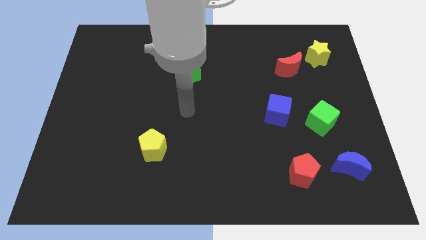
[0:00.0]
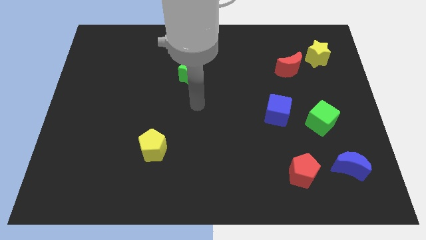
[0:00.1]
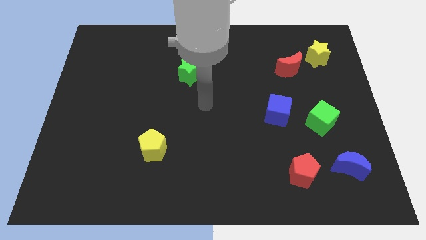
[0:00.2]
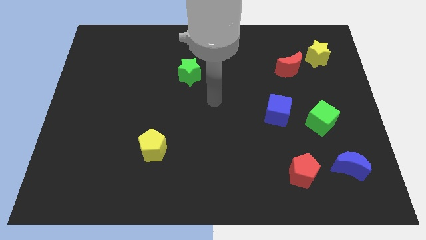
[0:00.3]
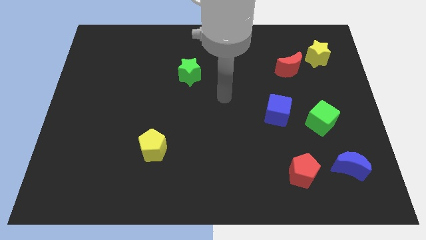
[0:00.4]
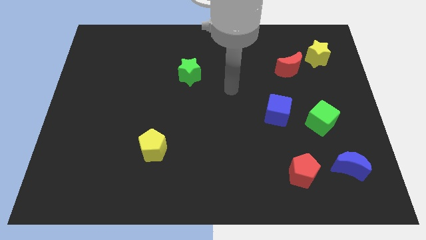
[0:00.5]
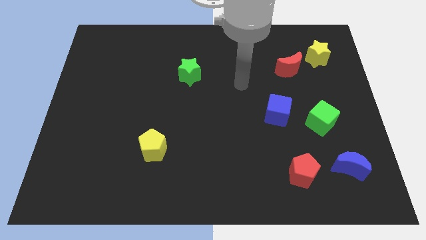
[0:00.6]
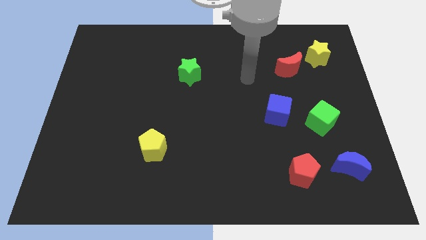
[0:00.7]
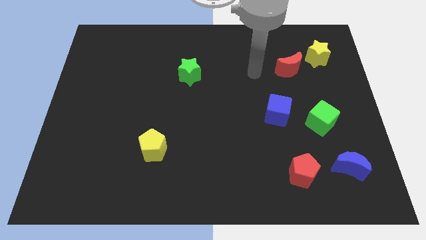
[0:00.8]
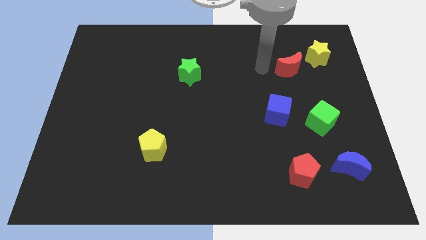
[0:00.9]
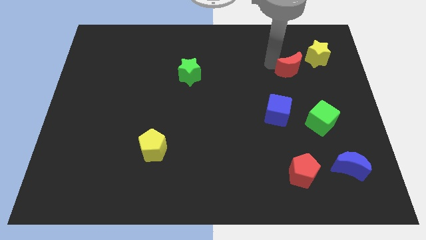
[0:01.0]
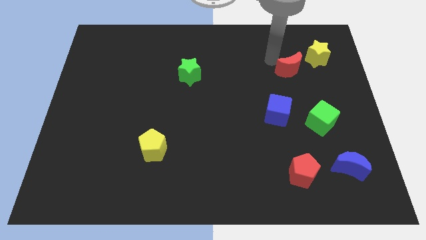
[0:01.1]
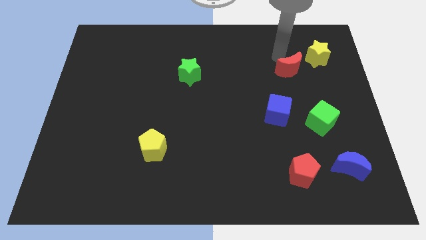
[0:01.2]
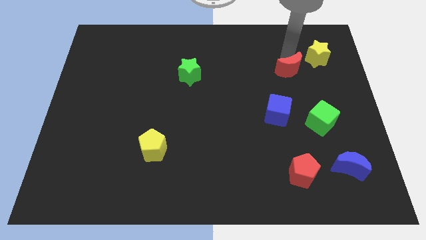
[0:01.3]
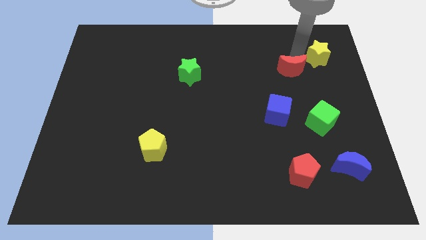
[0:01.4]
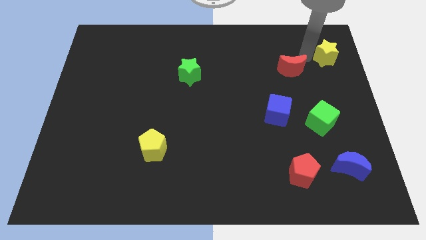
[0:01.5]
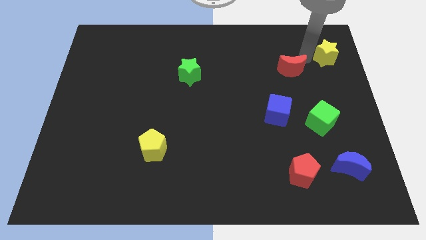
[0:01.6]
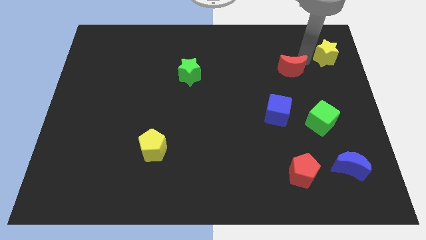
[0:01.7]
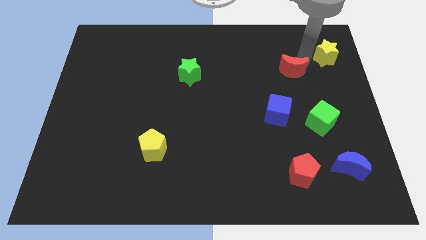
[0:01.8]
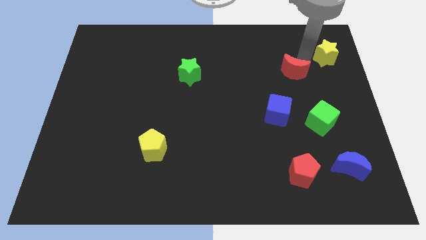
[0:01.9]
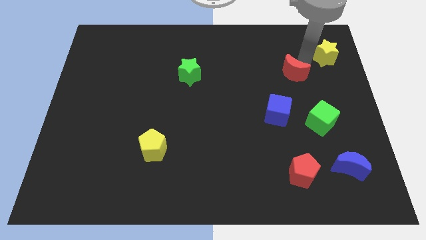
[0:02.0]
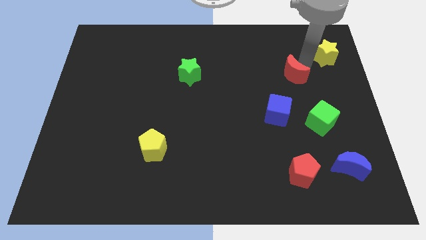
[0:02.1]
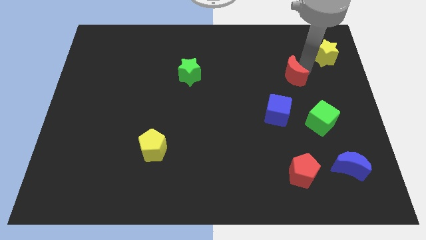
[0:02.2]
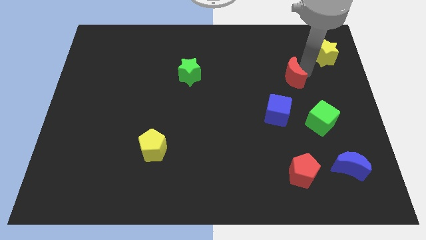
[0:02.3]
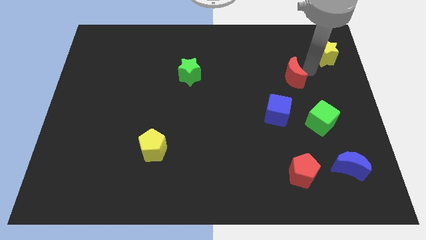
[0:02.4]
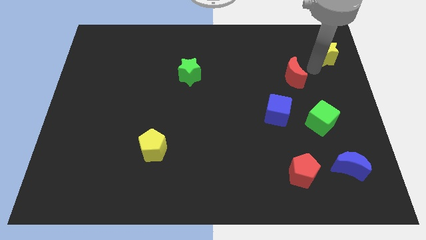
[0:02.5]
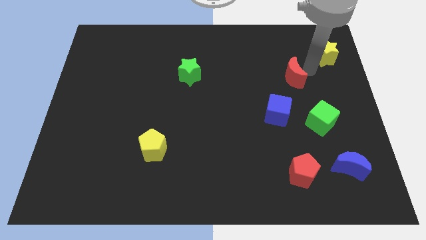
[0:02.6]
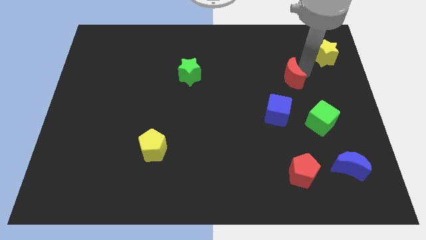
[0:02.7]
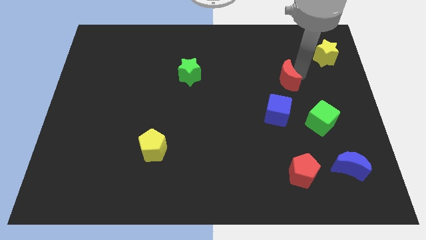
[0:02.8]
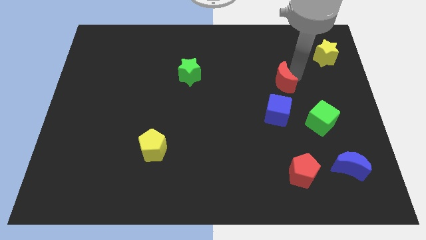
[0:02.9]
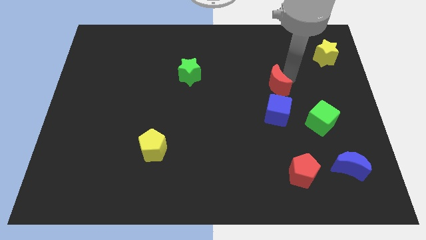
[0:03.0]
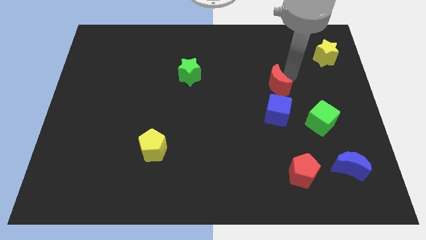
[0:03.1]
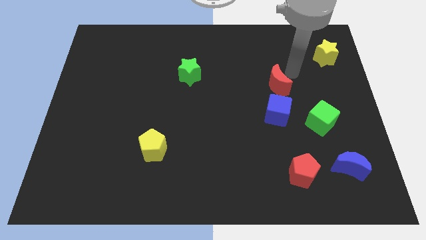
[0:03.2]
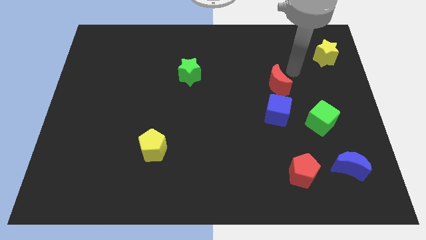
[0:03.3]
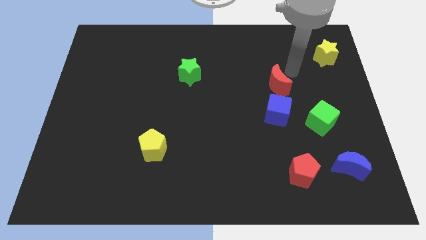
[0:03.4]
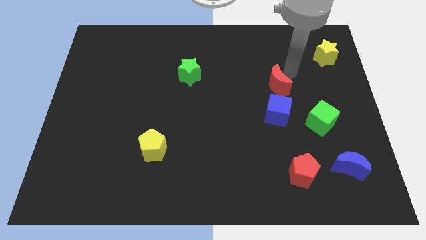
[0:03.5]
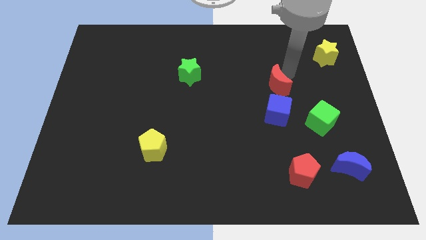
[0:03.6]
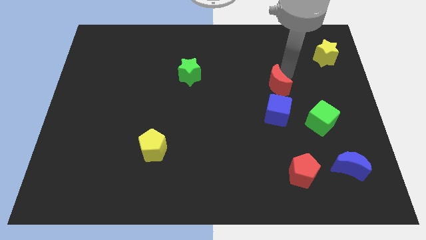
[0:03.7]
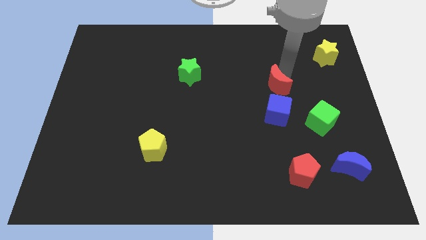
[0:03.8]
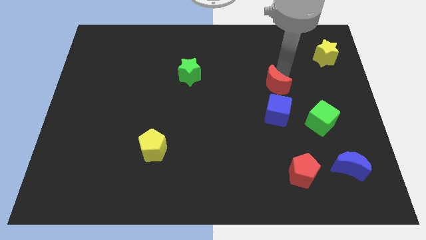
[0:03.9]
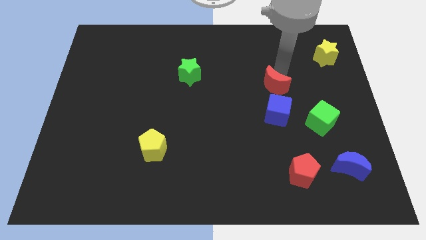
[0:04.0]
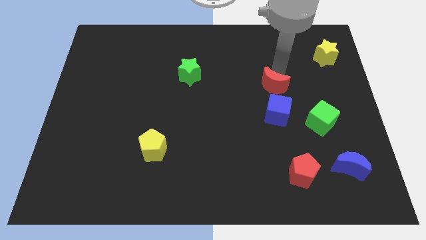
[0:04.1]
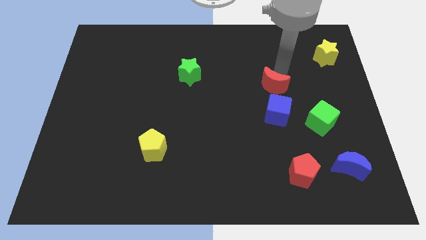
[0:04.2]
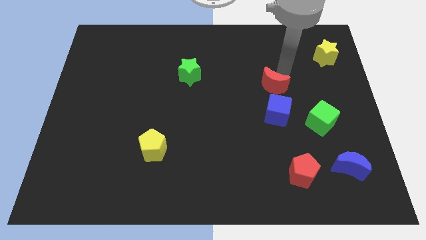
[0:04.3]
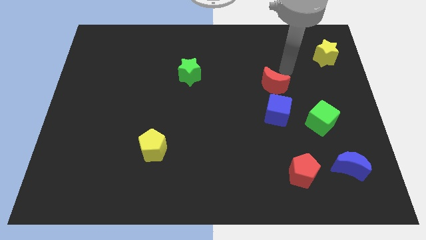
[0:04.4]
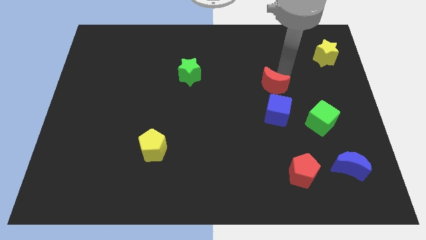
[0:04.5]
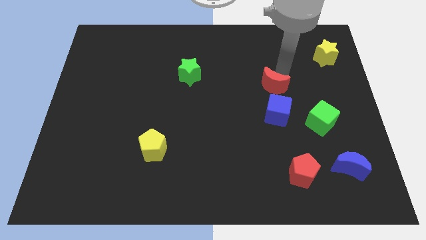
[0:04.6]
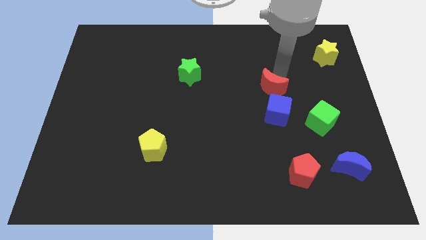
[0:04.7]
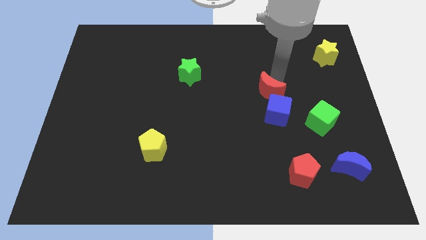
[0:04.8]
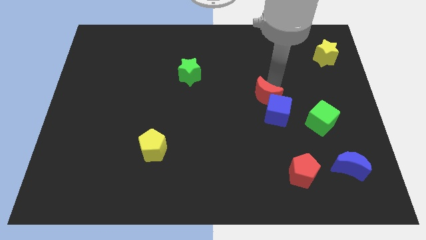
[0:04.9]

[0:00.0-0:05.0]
push the red moon a little bit down

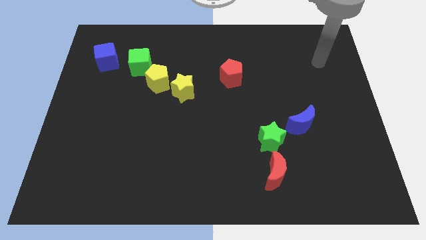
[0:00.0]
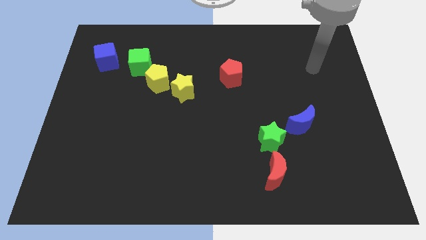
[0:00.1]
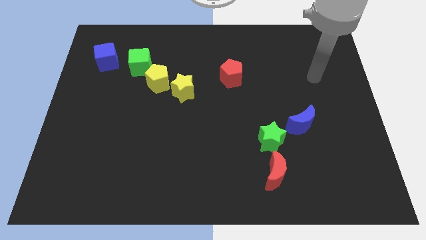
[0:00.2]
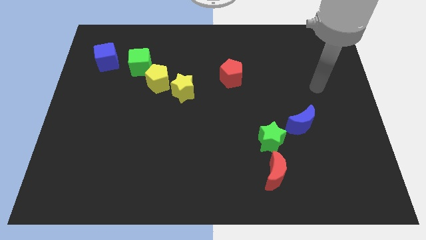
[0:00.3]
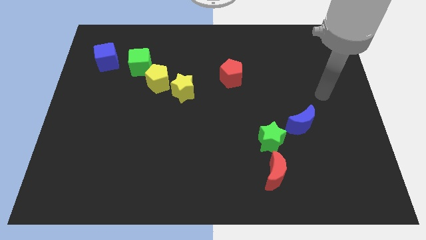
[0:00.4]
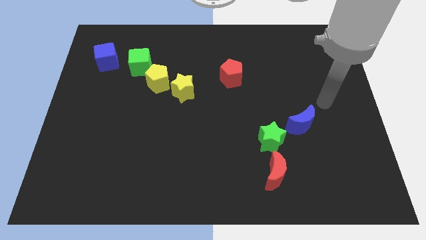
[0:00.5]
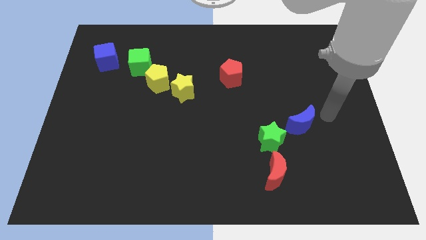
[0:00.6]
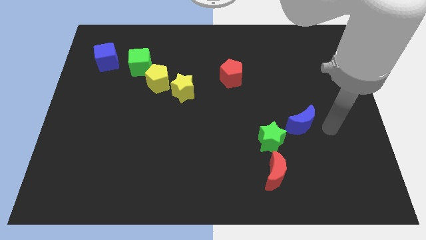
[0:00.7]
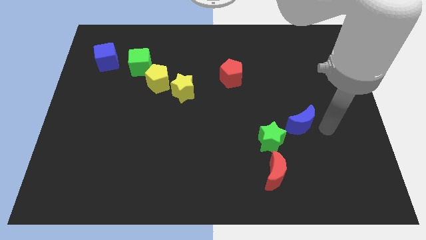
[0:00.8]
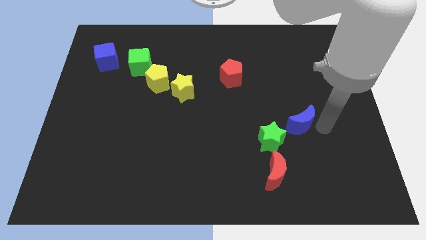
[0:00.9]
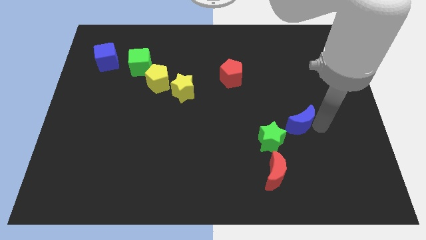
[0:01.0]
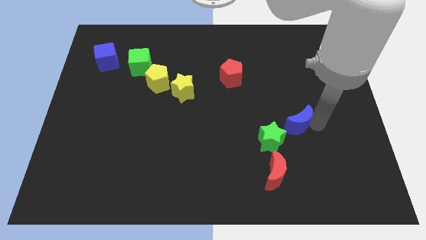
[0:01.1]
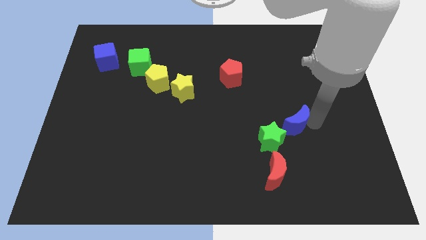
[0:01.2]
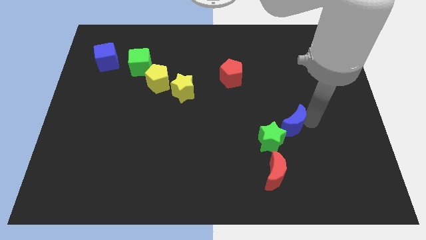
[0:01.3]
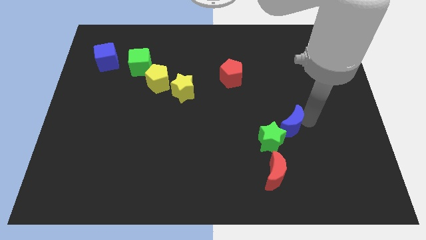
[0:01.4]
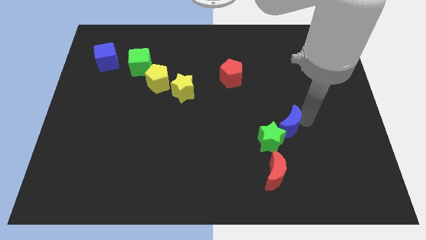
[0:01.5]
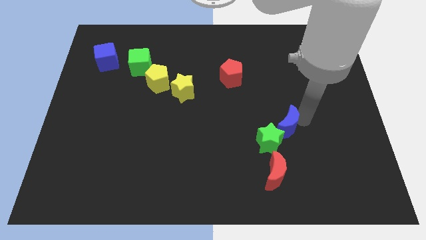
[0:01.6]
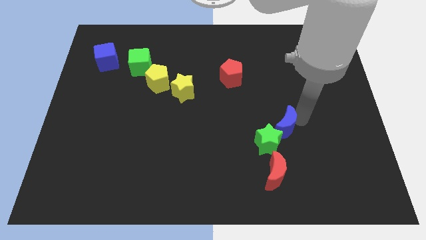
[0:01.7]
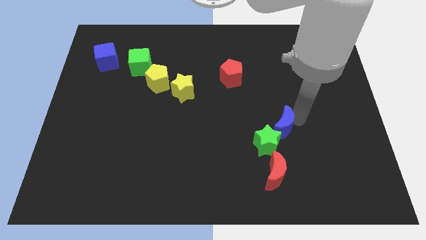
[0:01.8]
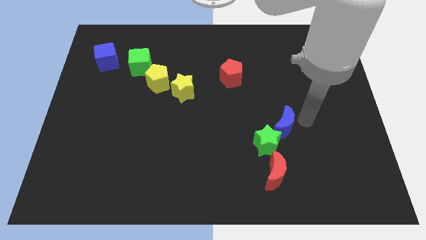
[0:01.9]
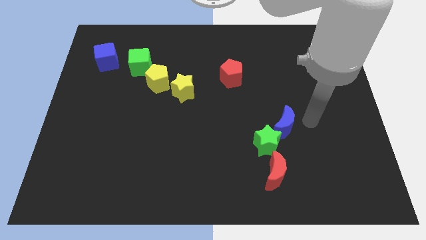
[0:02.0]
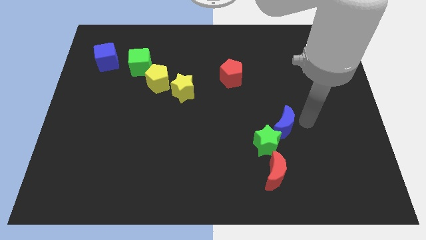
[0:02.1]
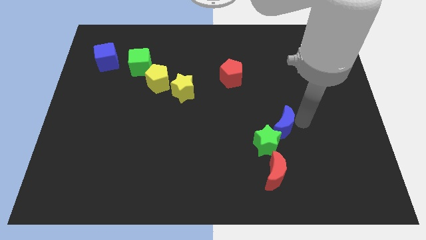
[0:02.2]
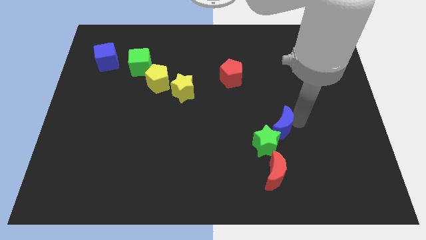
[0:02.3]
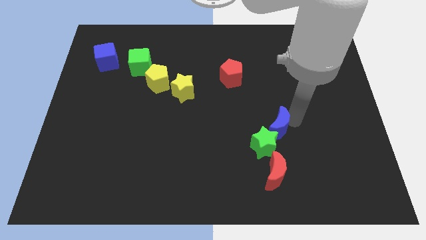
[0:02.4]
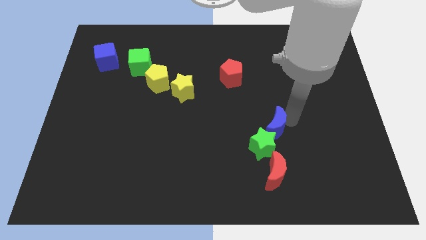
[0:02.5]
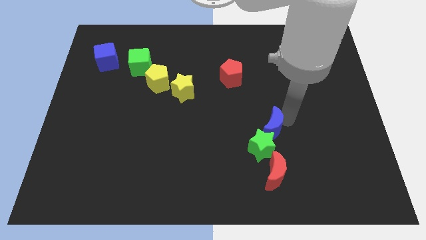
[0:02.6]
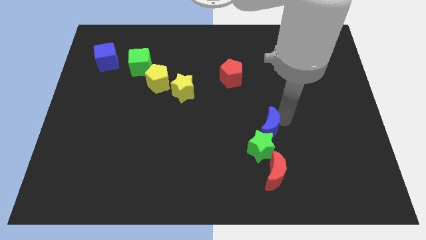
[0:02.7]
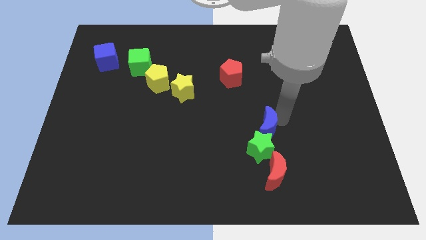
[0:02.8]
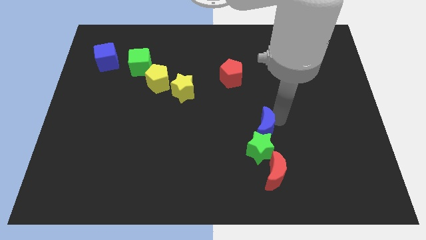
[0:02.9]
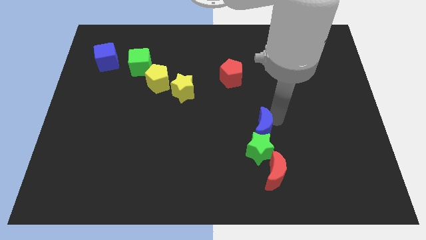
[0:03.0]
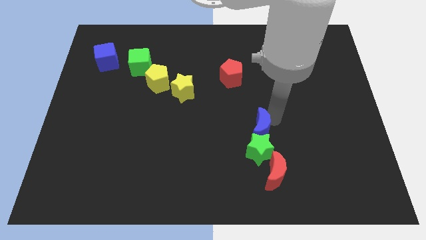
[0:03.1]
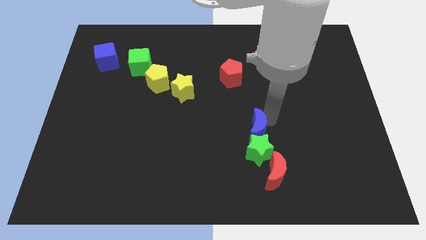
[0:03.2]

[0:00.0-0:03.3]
push the blue moon down and to the left diagonally a bit

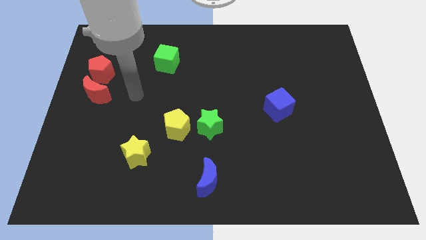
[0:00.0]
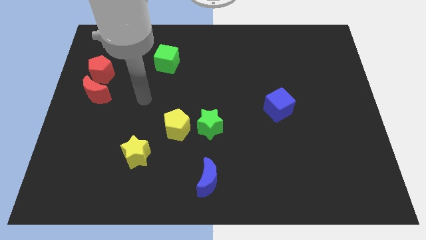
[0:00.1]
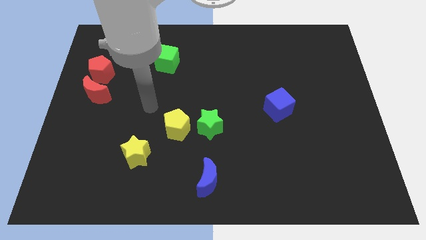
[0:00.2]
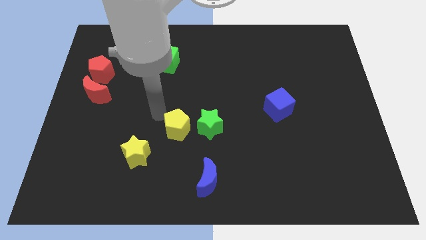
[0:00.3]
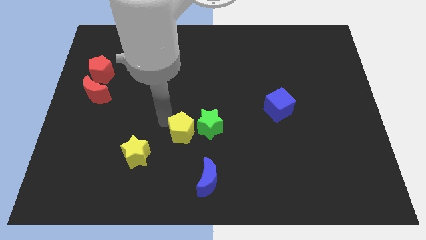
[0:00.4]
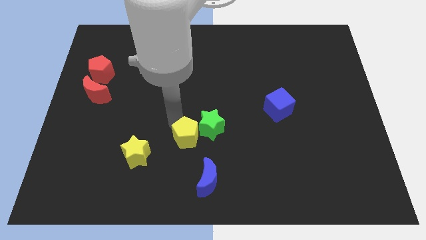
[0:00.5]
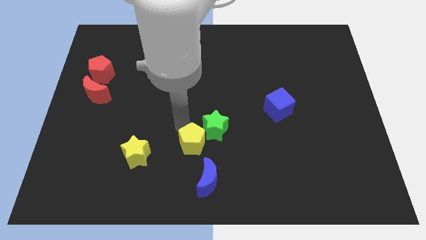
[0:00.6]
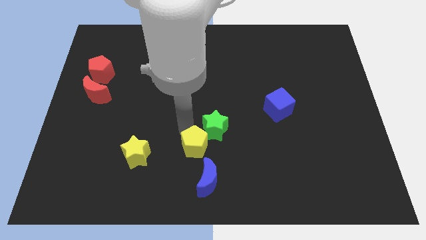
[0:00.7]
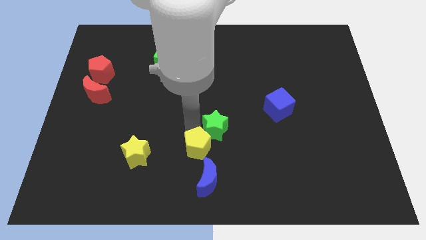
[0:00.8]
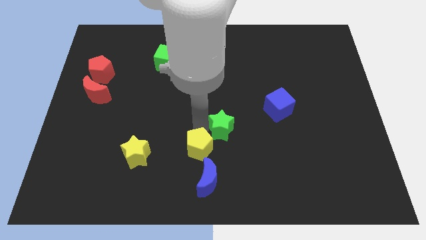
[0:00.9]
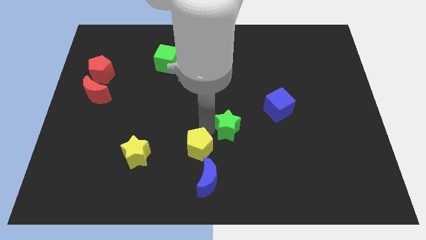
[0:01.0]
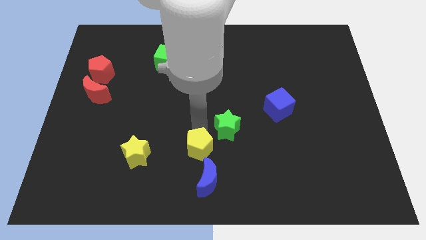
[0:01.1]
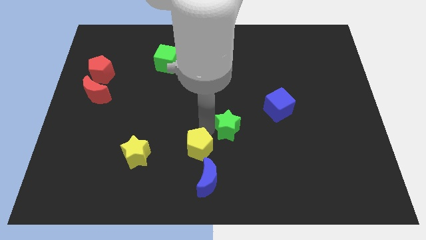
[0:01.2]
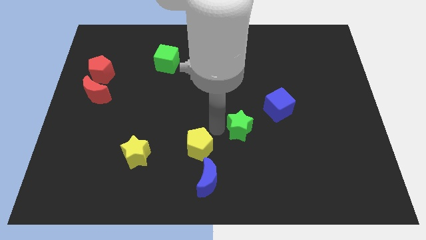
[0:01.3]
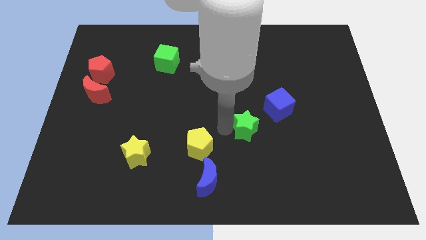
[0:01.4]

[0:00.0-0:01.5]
move the green star to the right slightly
